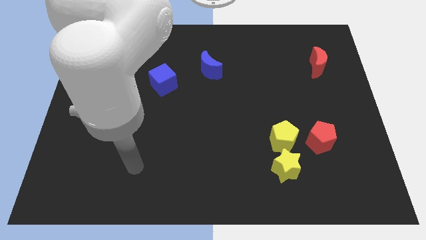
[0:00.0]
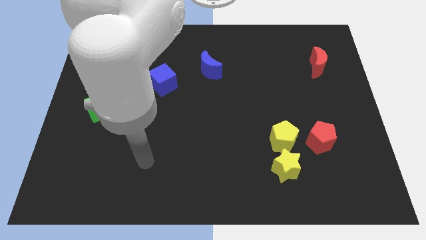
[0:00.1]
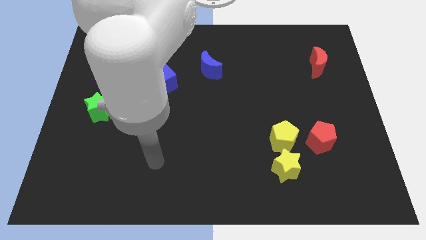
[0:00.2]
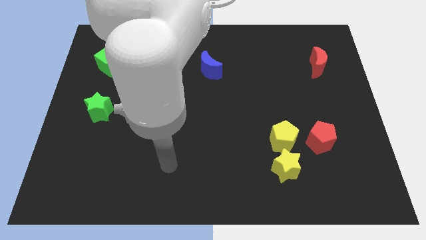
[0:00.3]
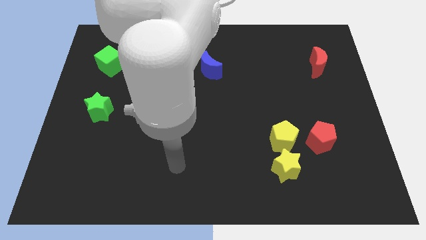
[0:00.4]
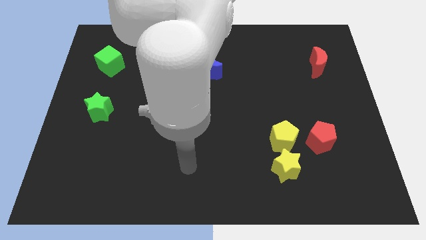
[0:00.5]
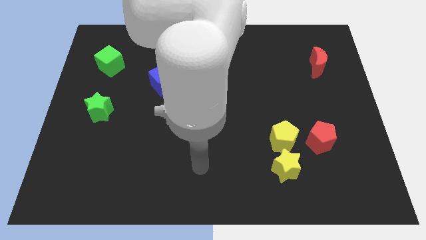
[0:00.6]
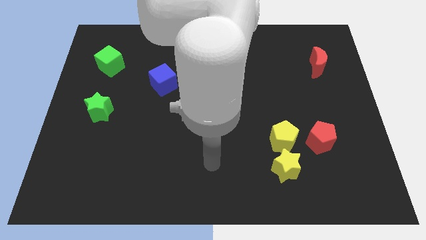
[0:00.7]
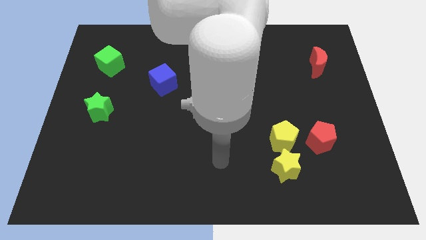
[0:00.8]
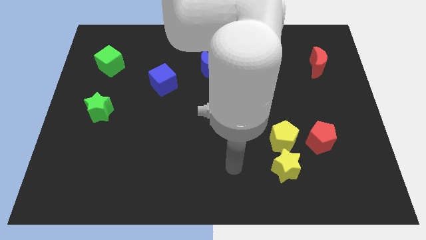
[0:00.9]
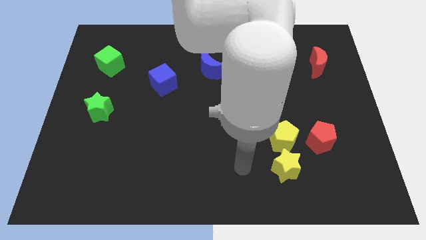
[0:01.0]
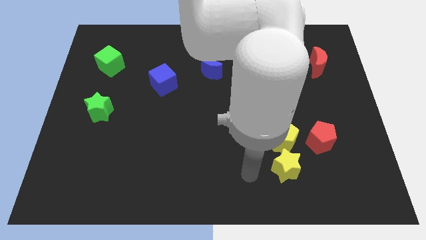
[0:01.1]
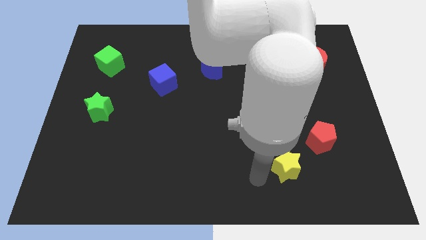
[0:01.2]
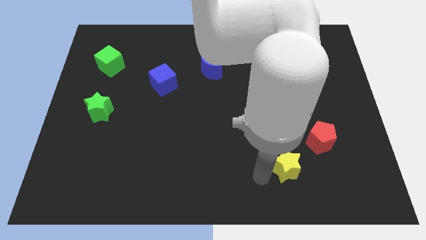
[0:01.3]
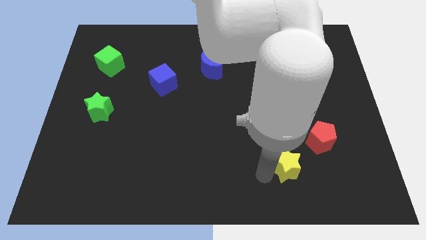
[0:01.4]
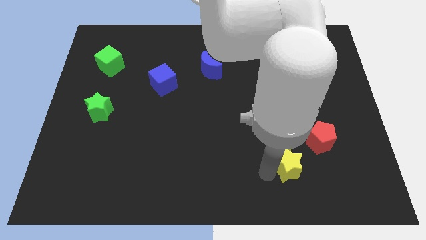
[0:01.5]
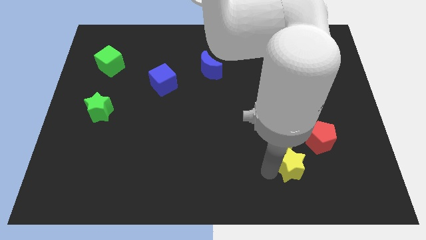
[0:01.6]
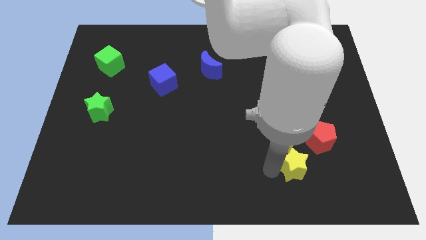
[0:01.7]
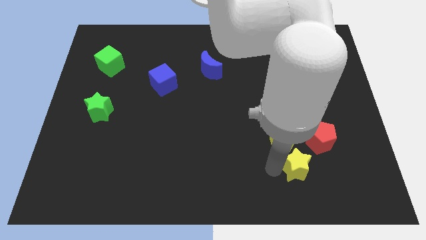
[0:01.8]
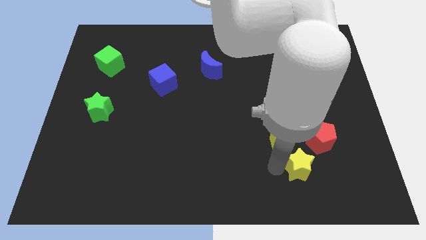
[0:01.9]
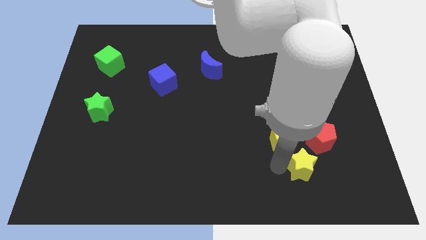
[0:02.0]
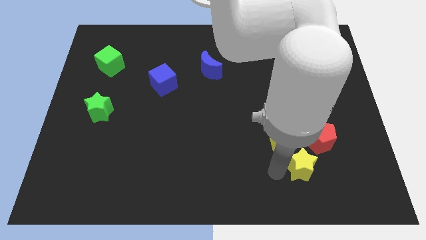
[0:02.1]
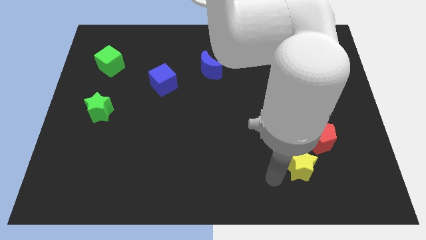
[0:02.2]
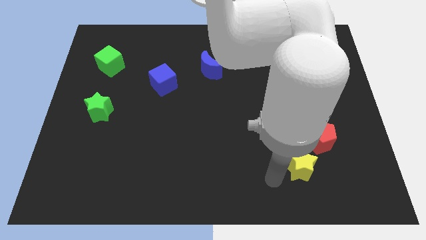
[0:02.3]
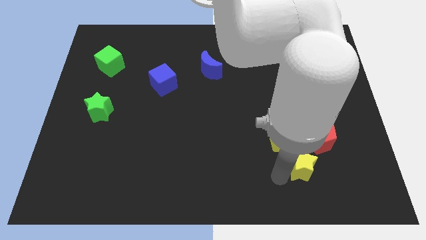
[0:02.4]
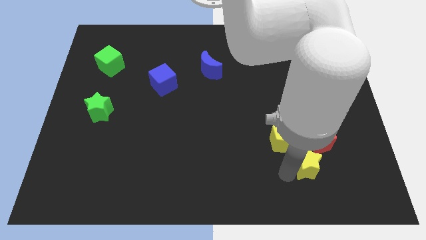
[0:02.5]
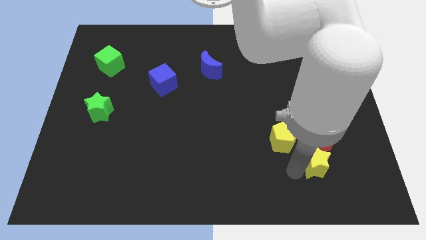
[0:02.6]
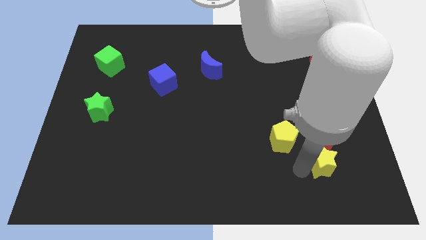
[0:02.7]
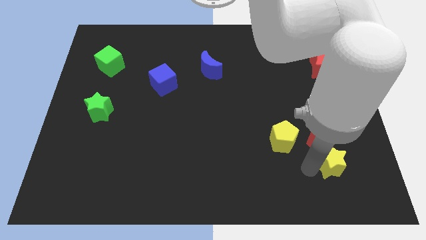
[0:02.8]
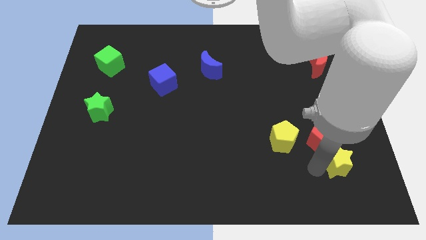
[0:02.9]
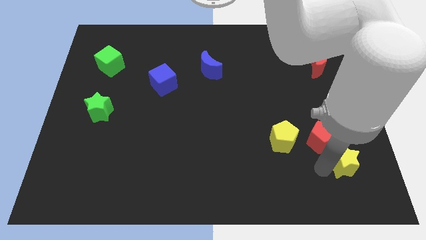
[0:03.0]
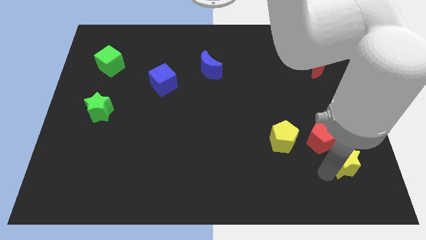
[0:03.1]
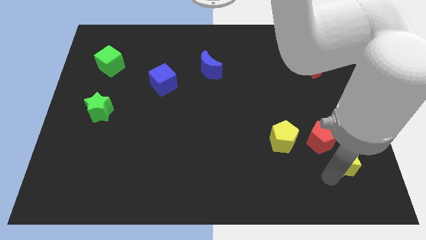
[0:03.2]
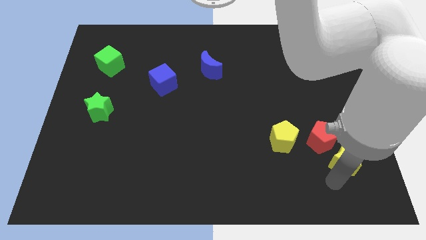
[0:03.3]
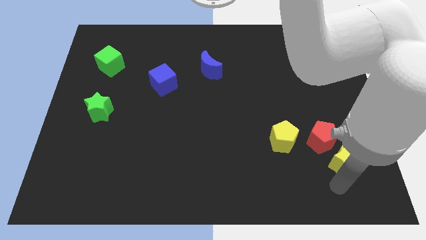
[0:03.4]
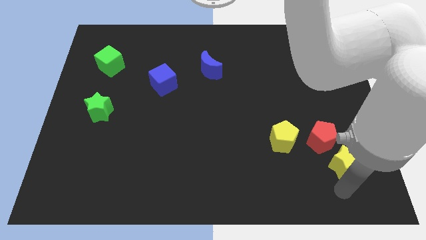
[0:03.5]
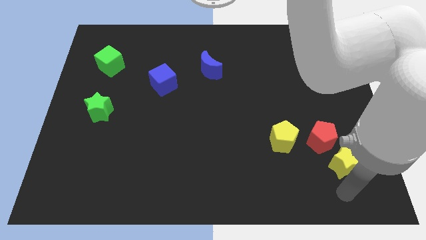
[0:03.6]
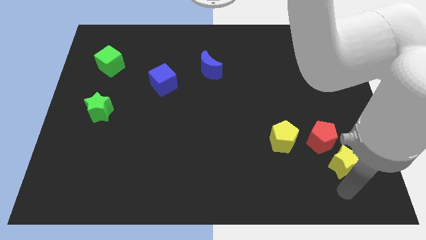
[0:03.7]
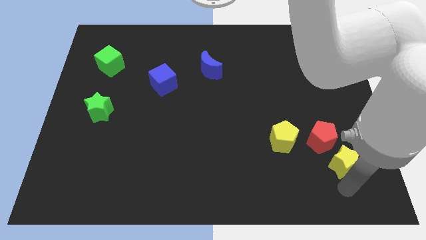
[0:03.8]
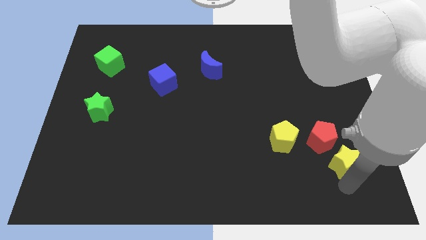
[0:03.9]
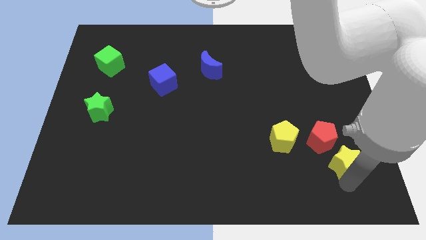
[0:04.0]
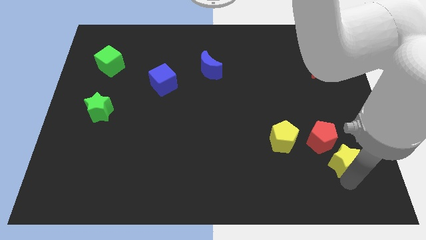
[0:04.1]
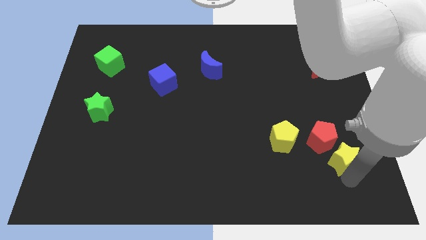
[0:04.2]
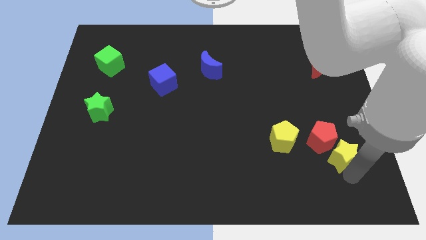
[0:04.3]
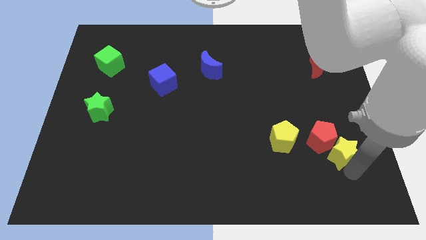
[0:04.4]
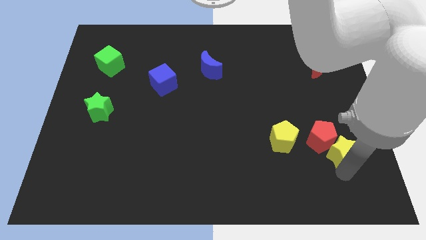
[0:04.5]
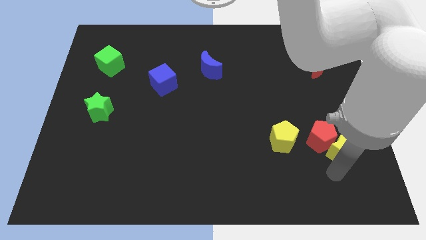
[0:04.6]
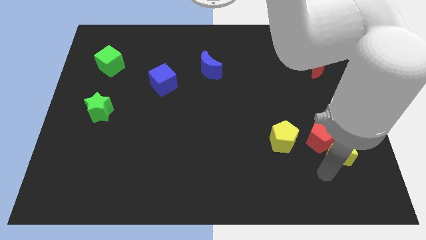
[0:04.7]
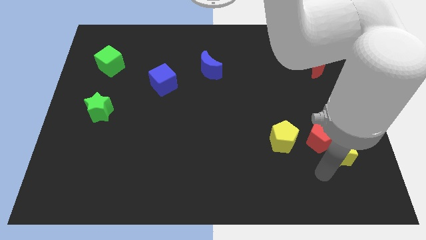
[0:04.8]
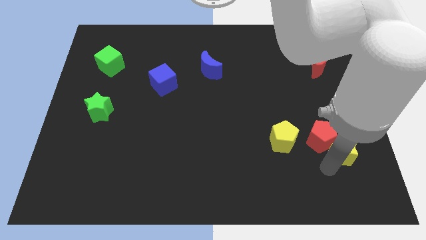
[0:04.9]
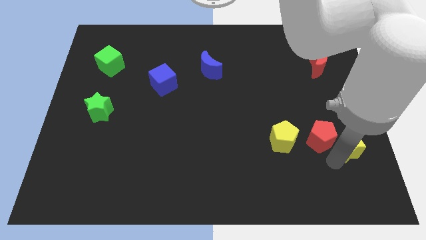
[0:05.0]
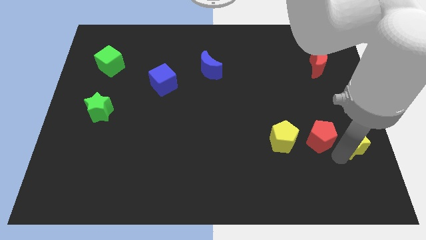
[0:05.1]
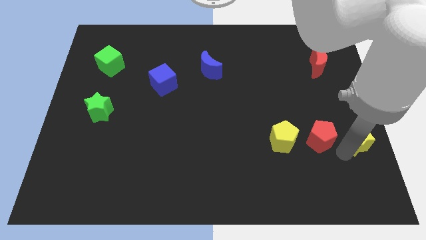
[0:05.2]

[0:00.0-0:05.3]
push the yellow star to the center right

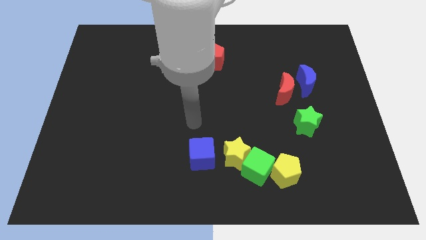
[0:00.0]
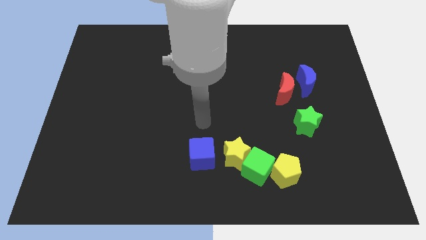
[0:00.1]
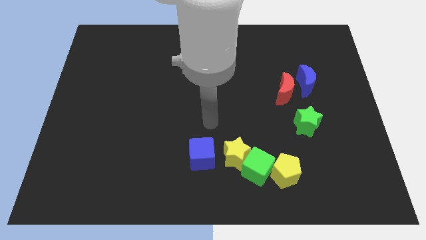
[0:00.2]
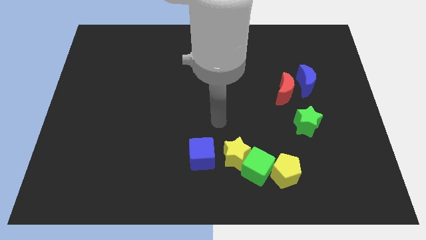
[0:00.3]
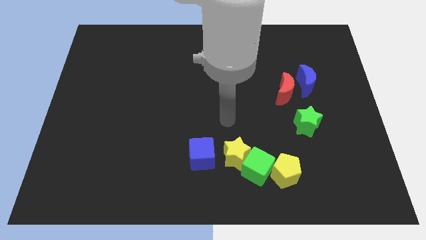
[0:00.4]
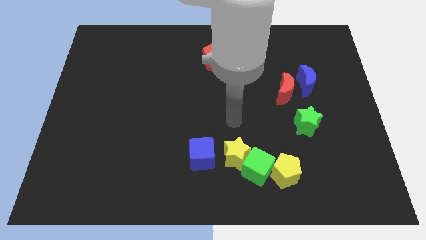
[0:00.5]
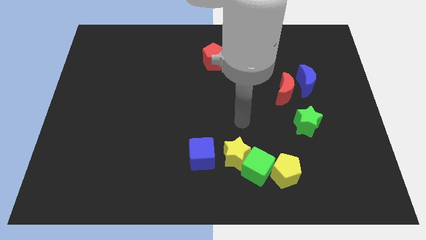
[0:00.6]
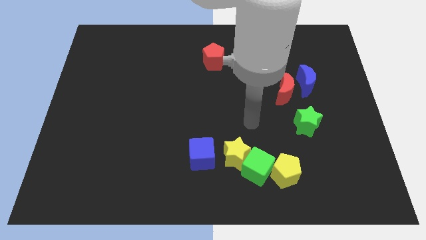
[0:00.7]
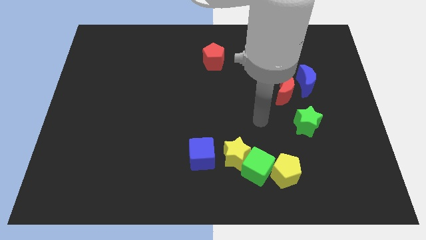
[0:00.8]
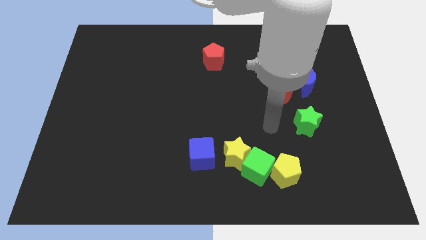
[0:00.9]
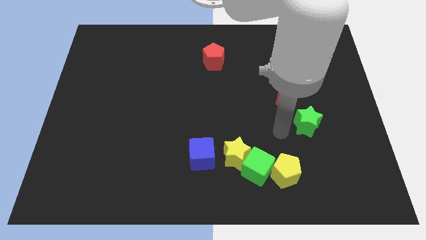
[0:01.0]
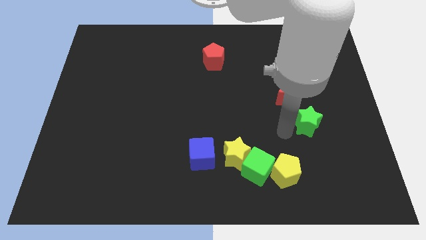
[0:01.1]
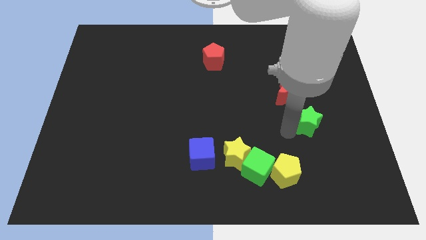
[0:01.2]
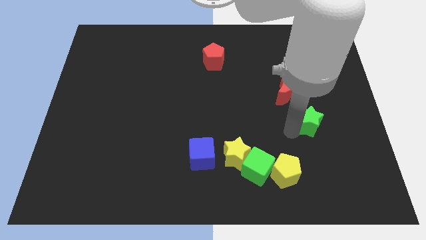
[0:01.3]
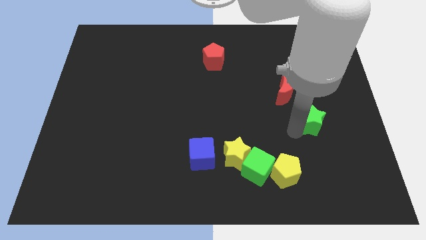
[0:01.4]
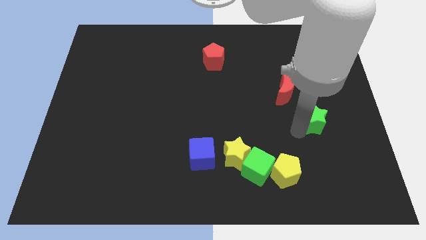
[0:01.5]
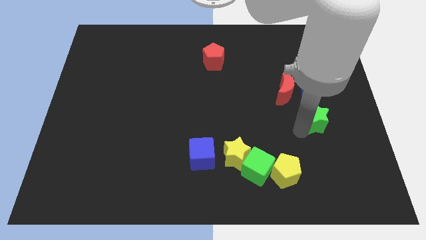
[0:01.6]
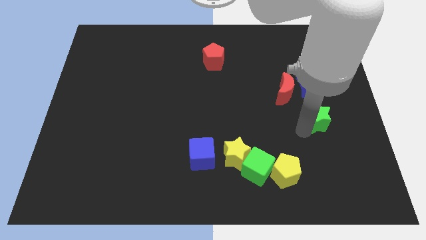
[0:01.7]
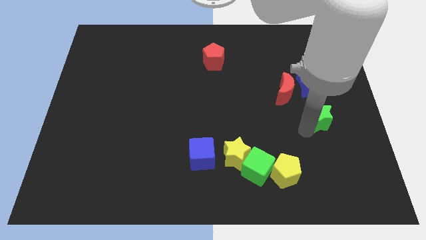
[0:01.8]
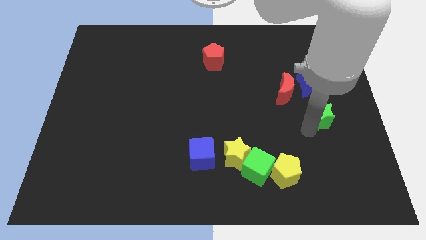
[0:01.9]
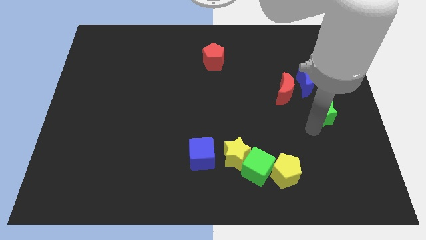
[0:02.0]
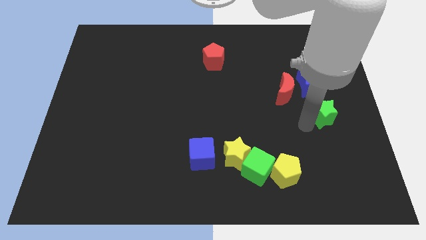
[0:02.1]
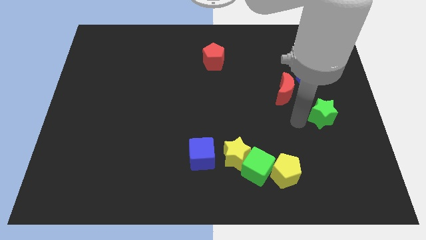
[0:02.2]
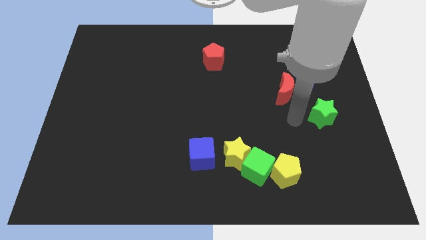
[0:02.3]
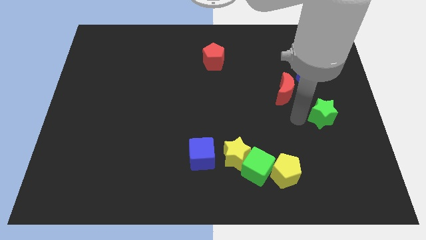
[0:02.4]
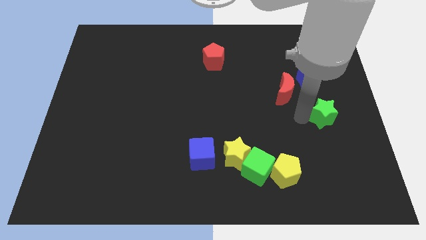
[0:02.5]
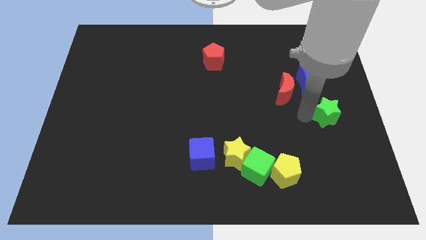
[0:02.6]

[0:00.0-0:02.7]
push the green star to the right side
